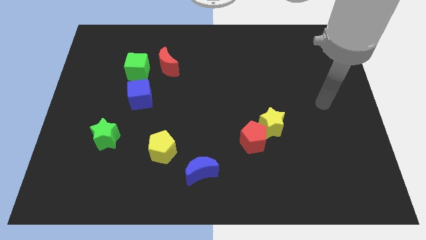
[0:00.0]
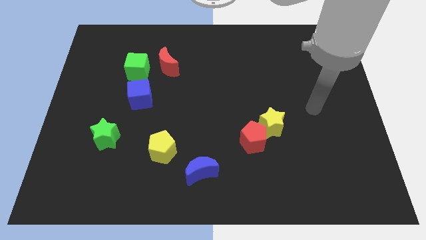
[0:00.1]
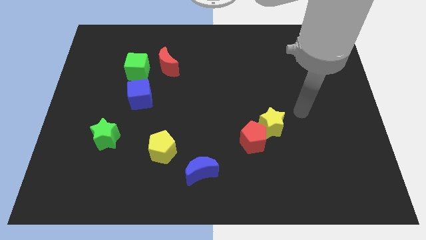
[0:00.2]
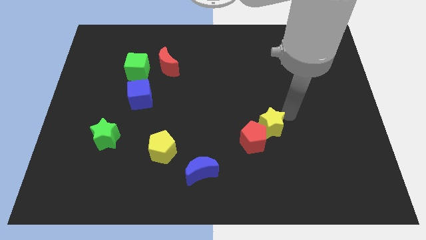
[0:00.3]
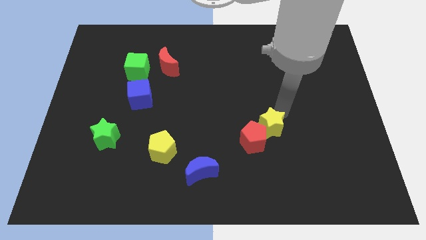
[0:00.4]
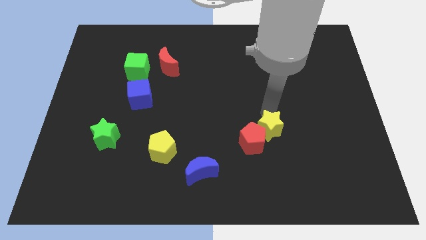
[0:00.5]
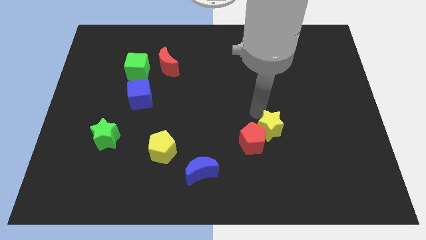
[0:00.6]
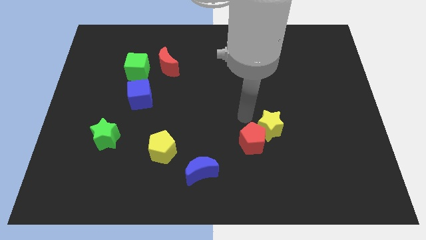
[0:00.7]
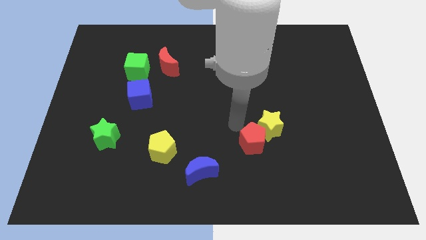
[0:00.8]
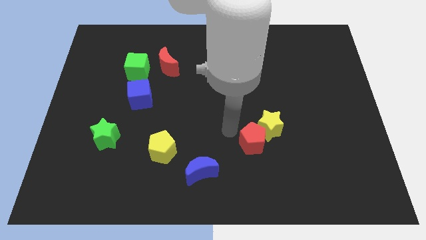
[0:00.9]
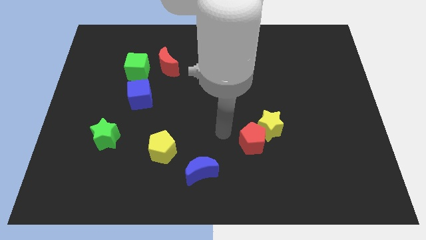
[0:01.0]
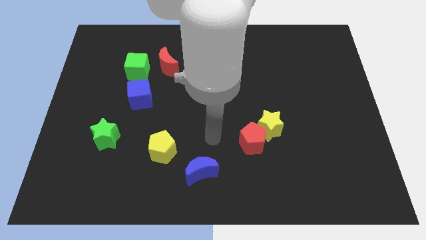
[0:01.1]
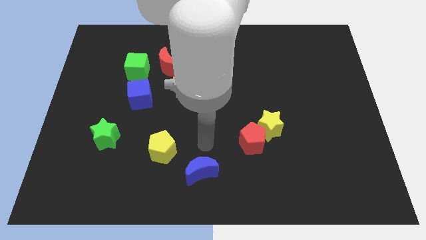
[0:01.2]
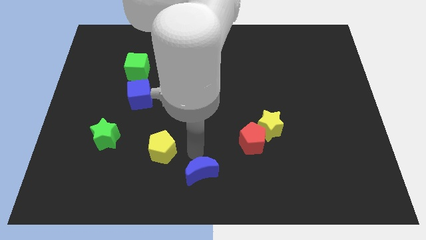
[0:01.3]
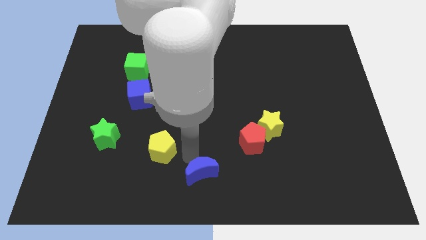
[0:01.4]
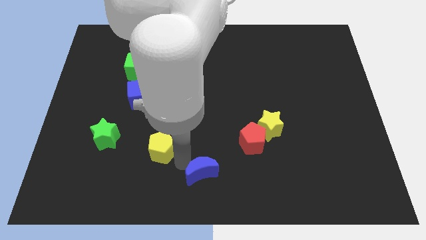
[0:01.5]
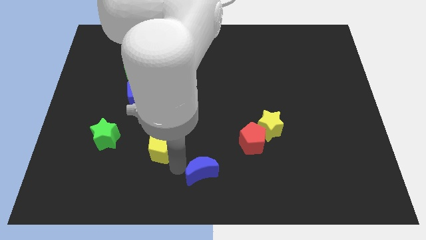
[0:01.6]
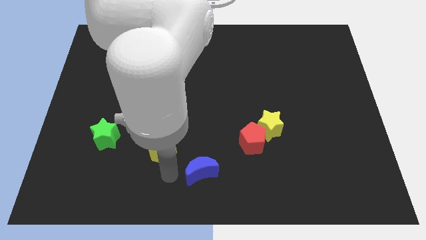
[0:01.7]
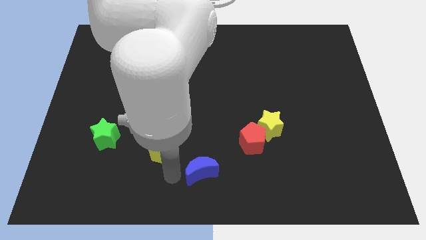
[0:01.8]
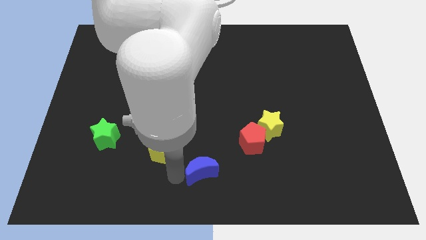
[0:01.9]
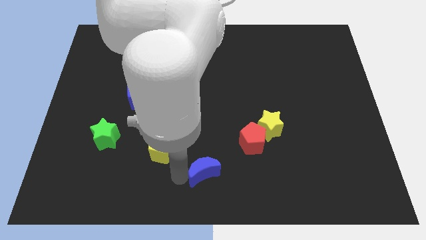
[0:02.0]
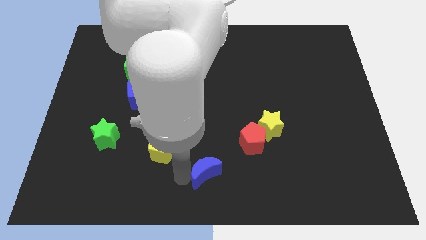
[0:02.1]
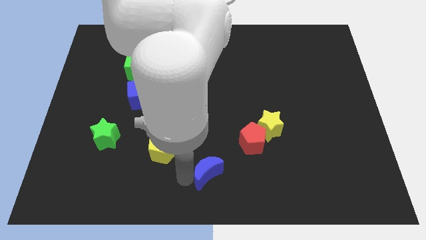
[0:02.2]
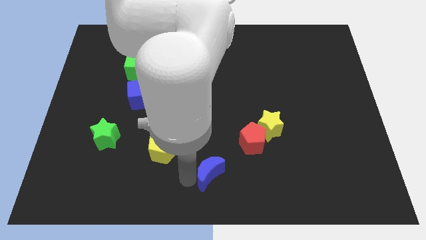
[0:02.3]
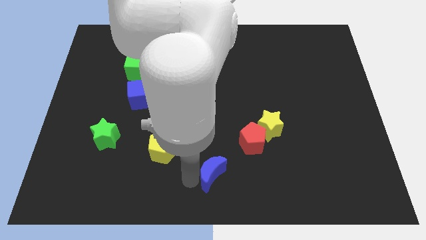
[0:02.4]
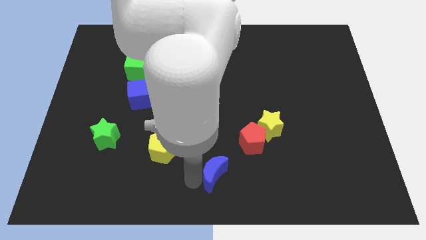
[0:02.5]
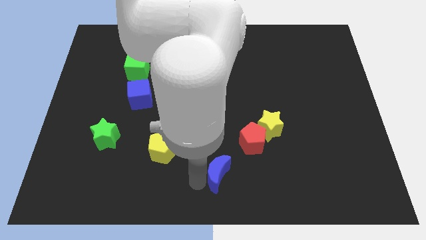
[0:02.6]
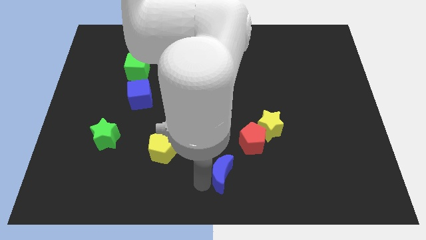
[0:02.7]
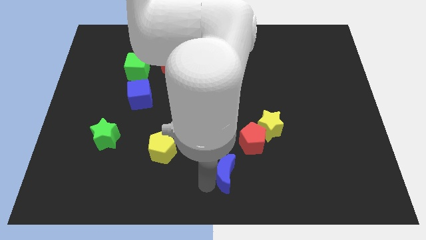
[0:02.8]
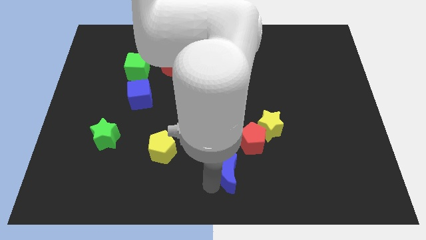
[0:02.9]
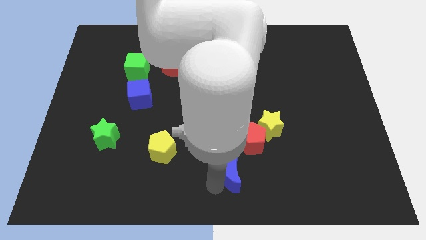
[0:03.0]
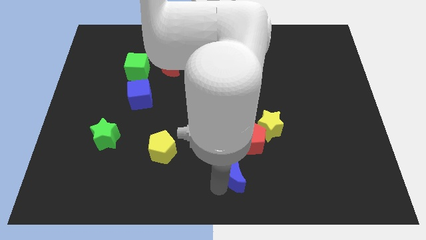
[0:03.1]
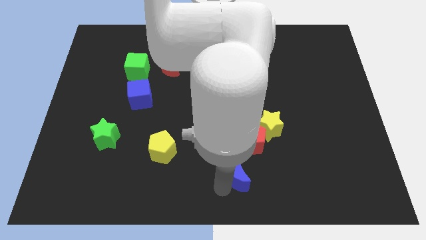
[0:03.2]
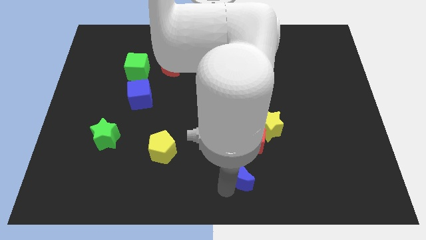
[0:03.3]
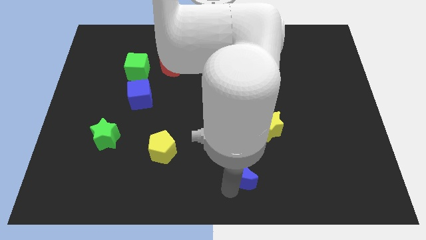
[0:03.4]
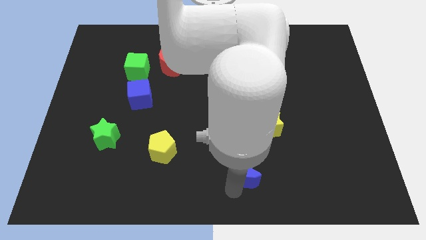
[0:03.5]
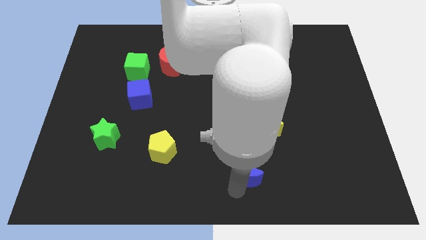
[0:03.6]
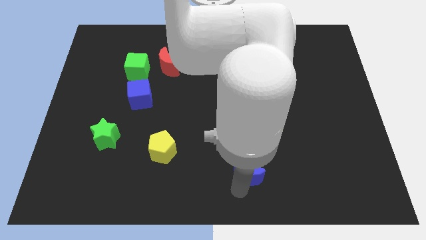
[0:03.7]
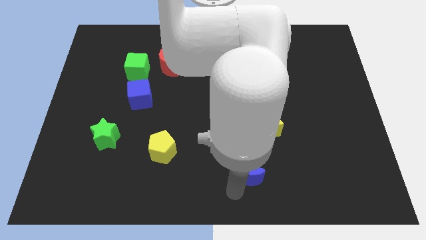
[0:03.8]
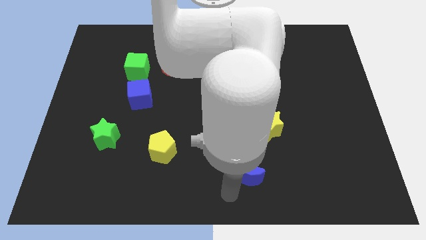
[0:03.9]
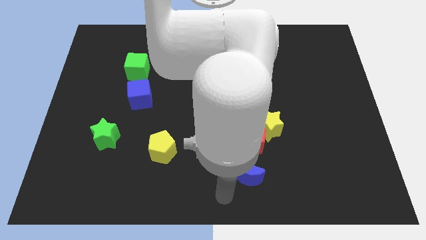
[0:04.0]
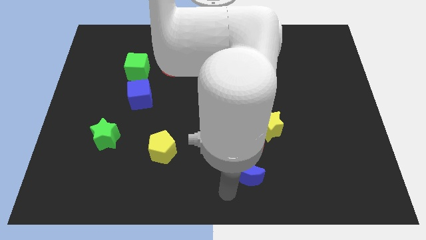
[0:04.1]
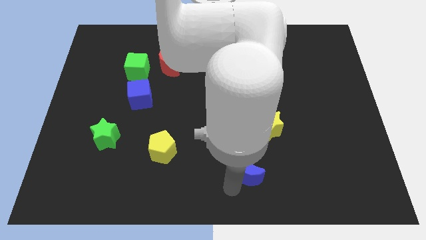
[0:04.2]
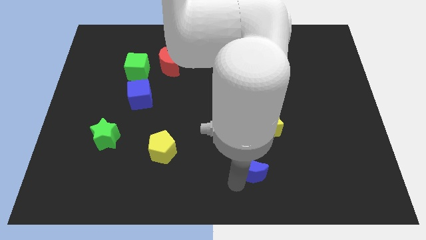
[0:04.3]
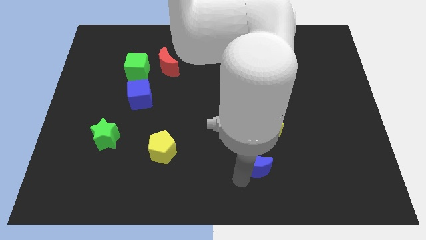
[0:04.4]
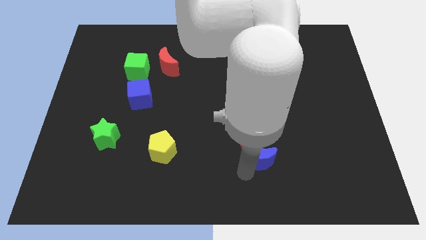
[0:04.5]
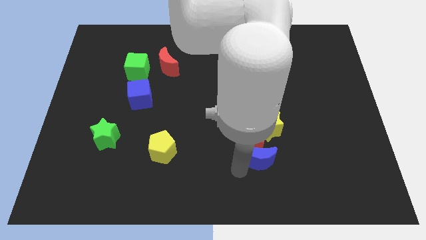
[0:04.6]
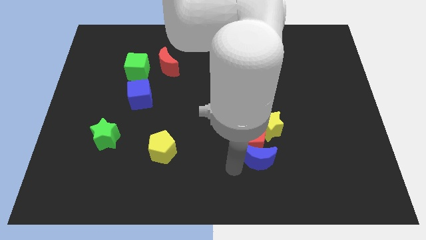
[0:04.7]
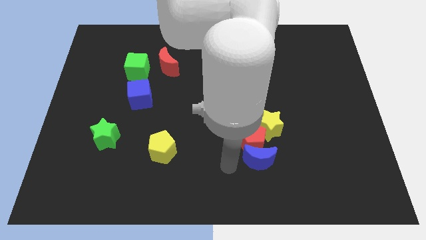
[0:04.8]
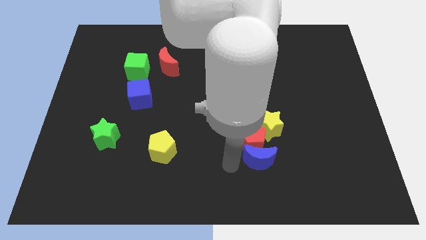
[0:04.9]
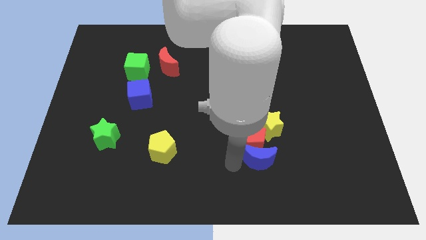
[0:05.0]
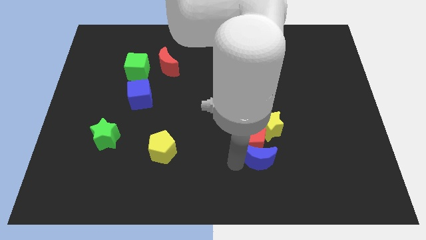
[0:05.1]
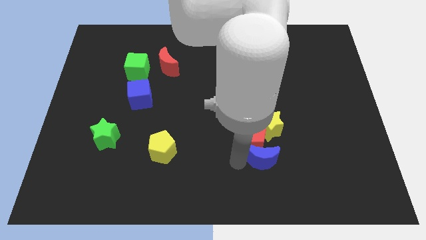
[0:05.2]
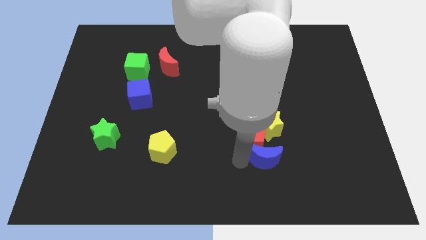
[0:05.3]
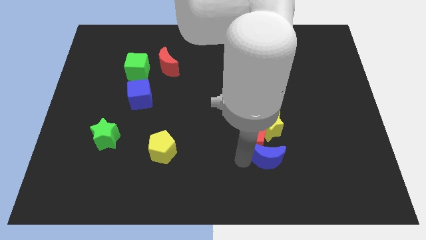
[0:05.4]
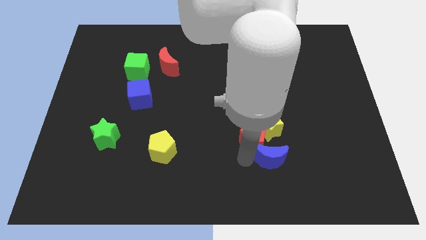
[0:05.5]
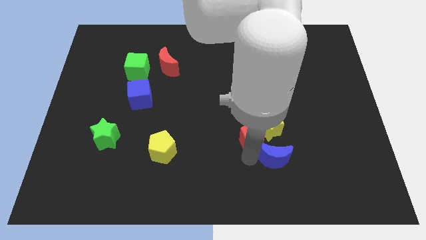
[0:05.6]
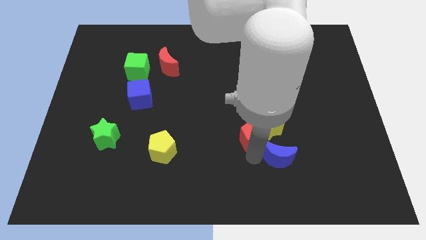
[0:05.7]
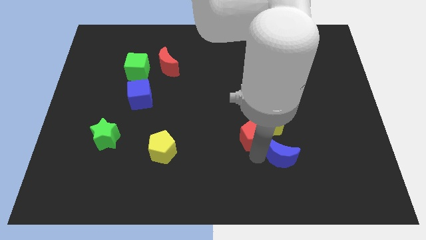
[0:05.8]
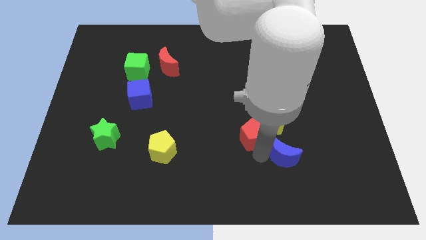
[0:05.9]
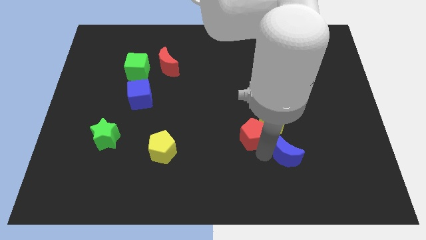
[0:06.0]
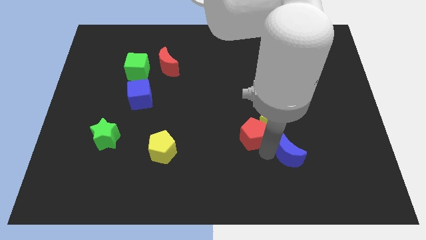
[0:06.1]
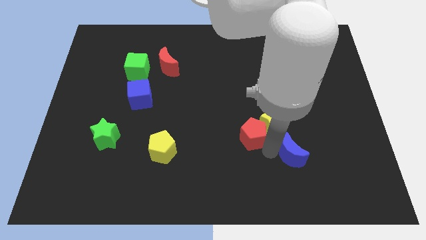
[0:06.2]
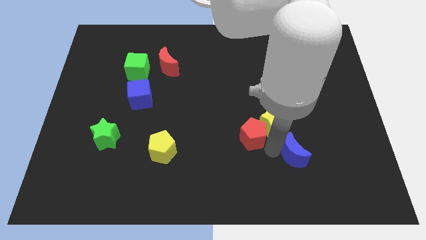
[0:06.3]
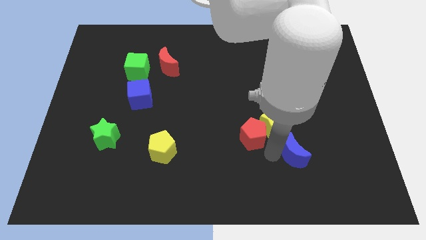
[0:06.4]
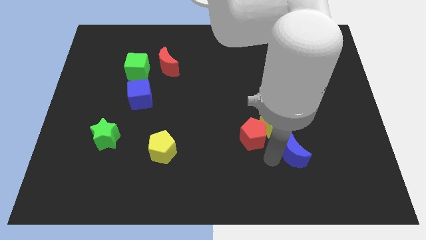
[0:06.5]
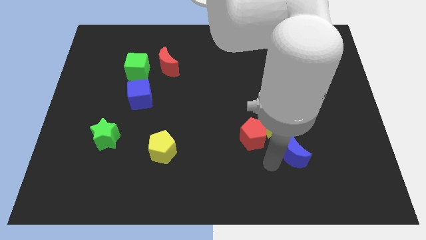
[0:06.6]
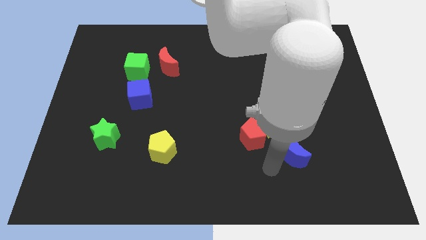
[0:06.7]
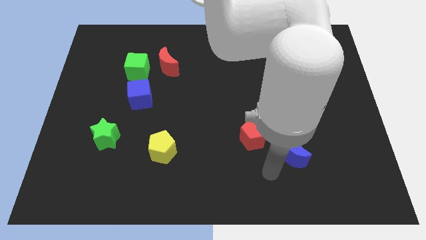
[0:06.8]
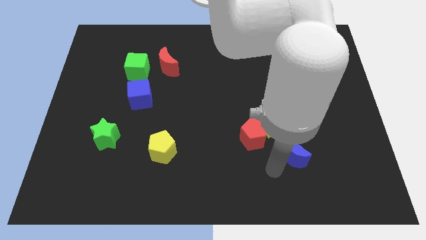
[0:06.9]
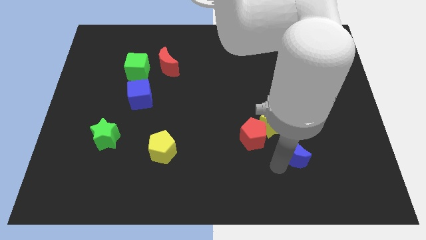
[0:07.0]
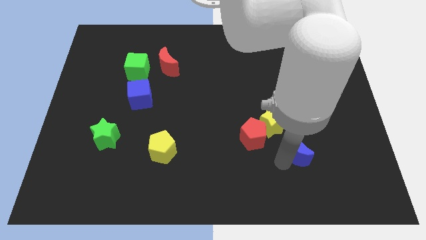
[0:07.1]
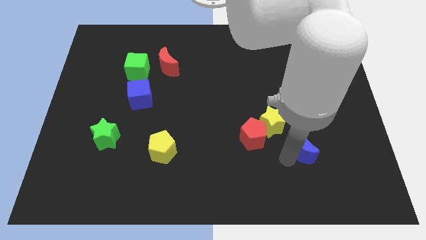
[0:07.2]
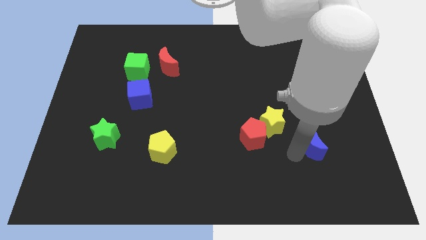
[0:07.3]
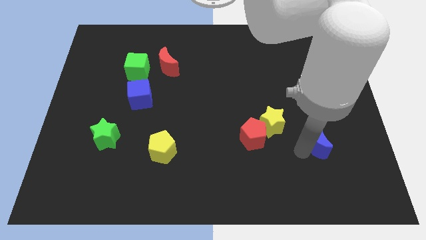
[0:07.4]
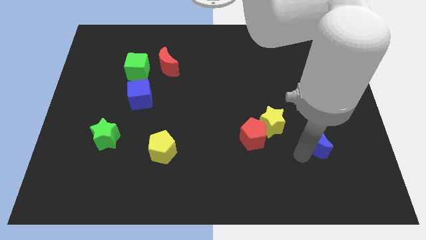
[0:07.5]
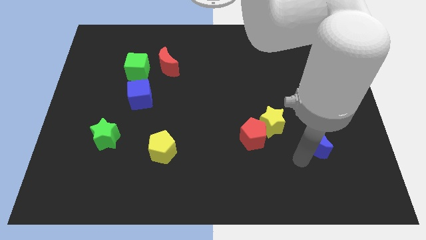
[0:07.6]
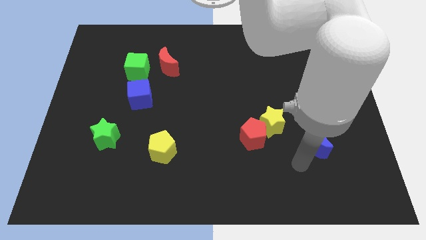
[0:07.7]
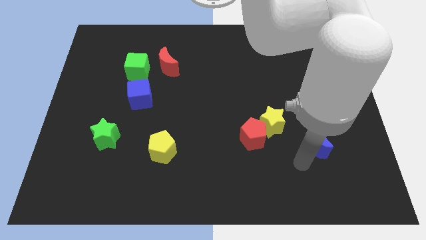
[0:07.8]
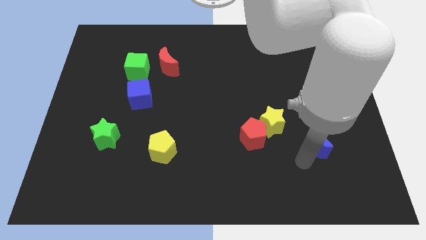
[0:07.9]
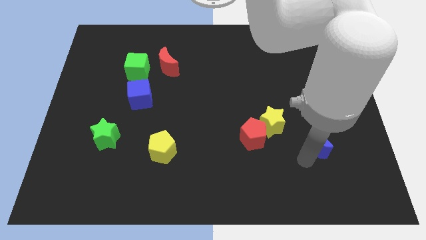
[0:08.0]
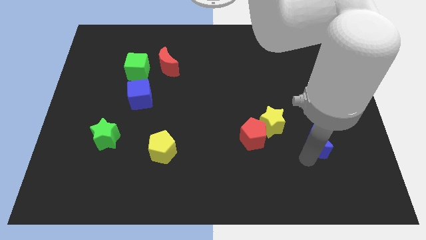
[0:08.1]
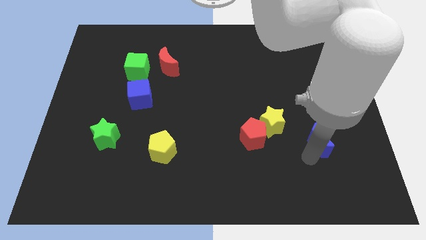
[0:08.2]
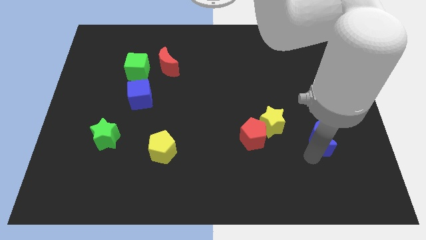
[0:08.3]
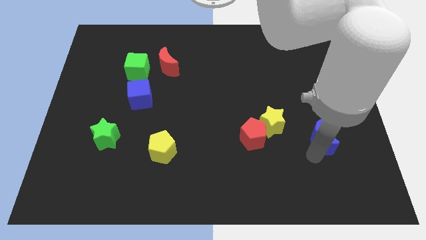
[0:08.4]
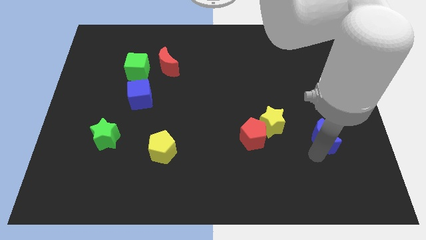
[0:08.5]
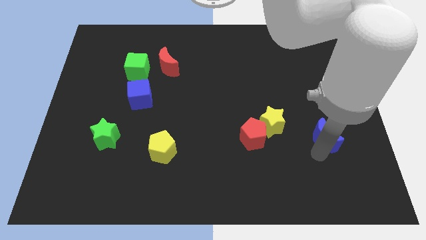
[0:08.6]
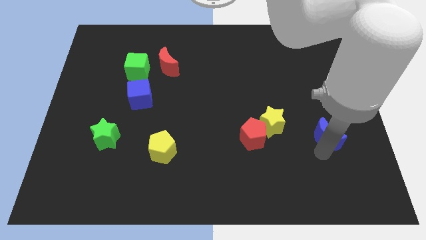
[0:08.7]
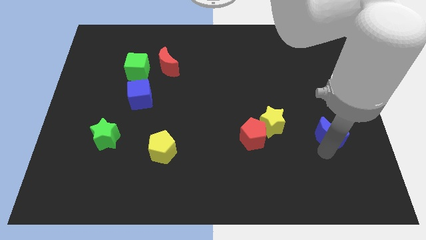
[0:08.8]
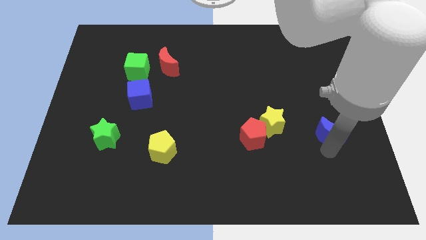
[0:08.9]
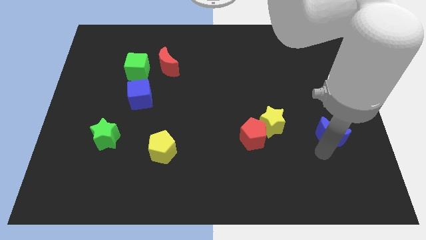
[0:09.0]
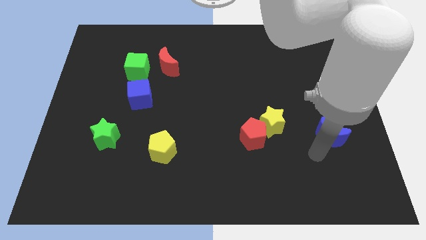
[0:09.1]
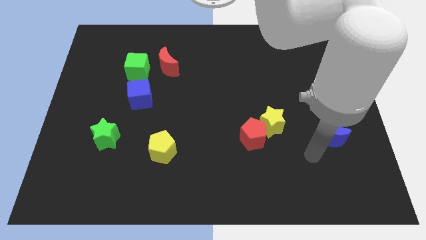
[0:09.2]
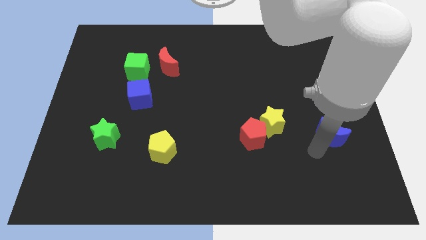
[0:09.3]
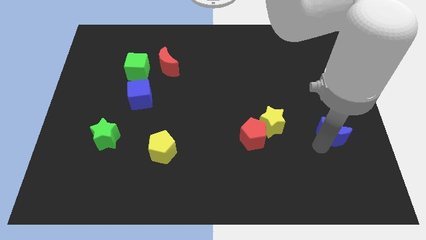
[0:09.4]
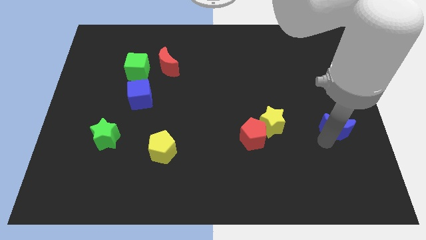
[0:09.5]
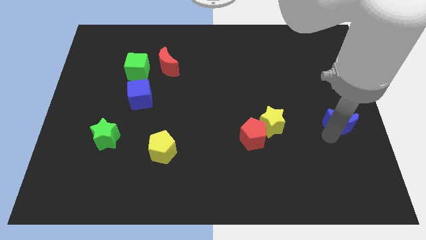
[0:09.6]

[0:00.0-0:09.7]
put the blue moon to the right side of the board
